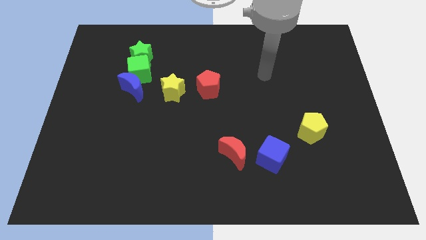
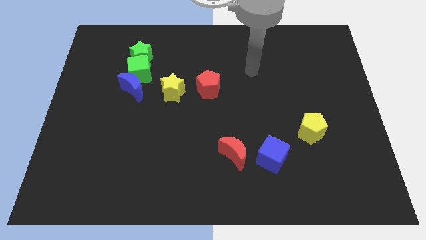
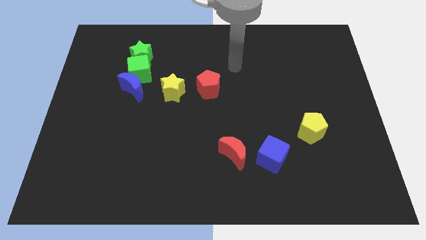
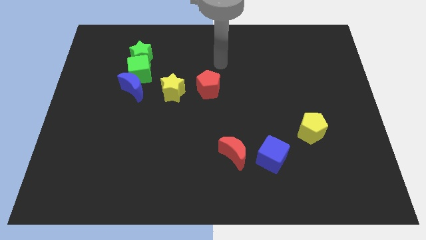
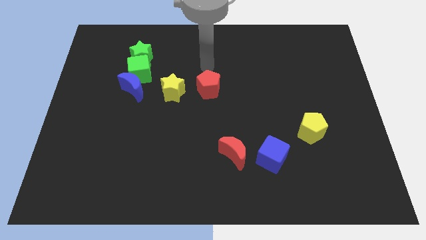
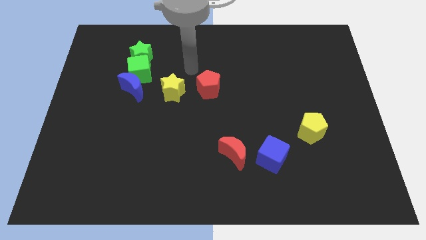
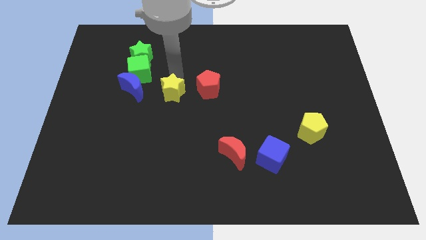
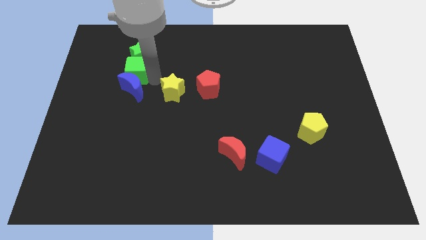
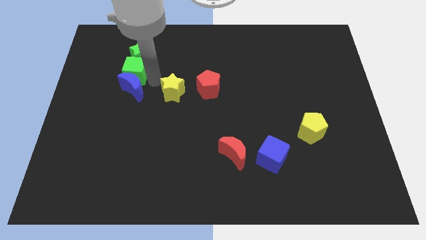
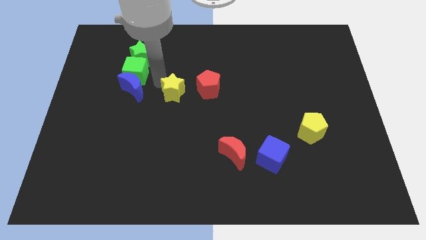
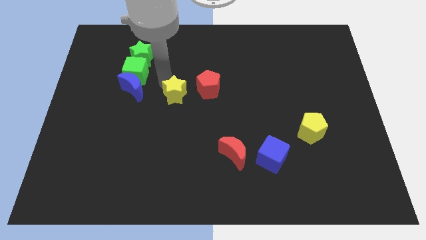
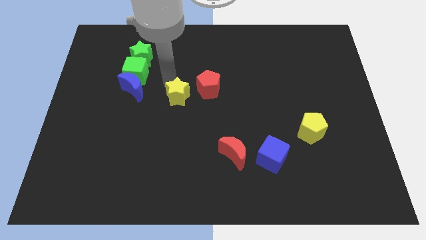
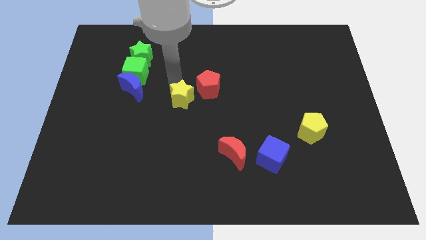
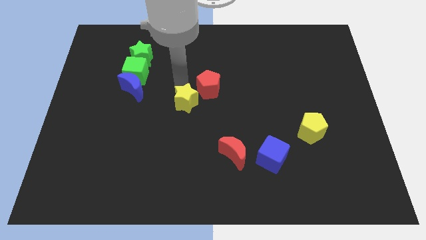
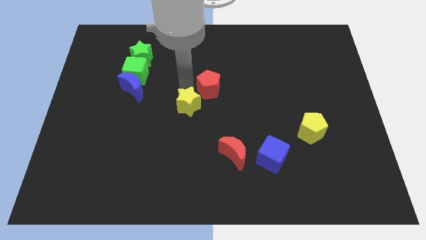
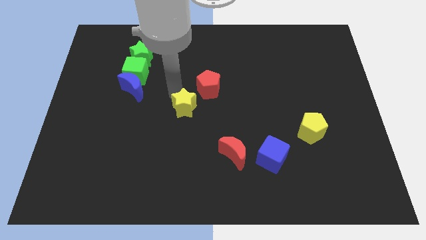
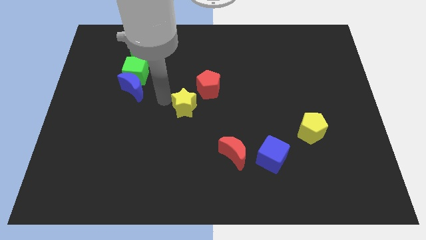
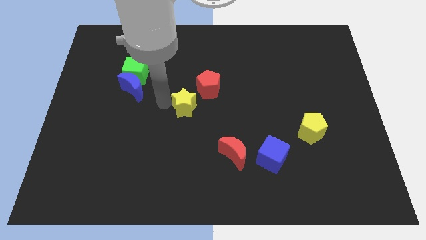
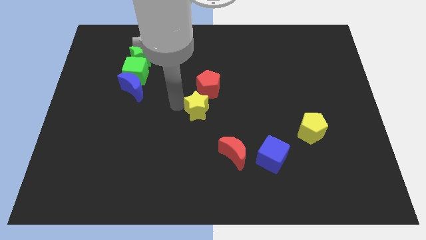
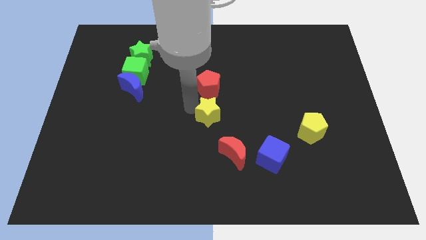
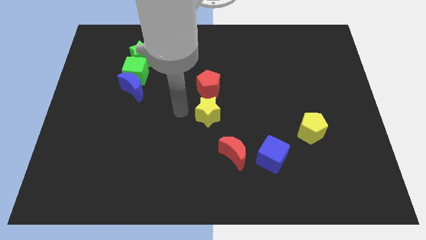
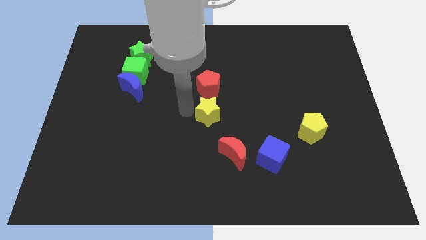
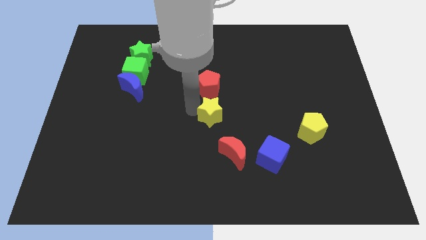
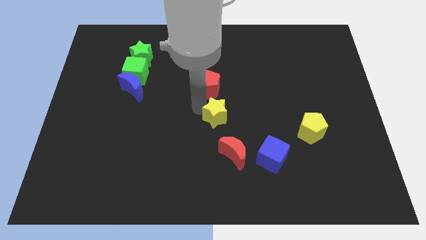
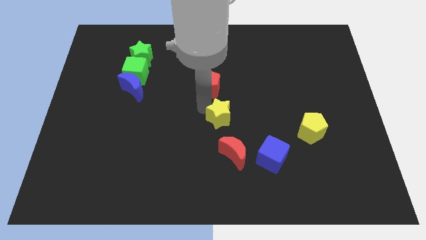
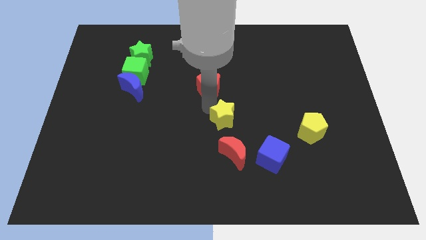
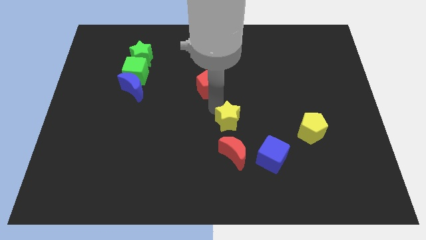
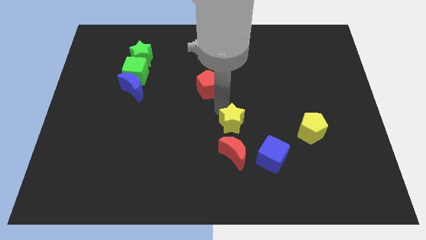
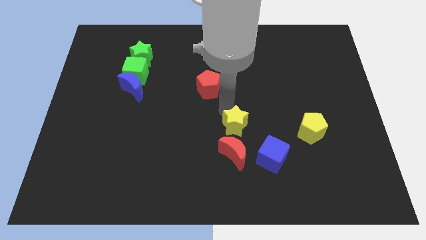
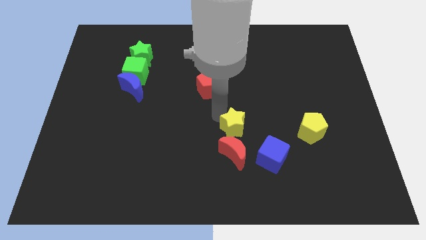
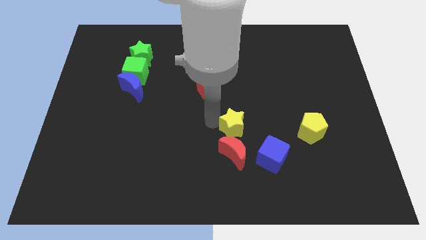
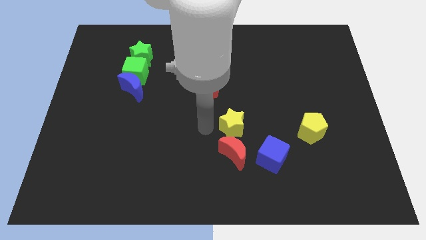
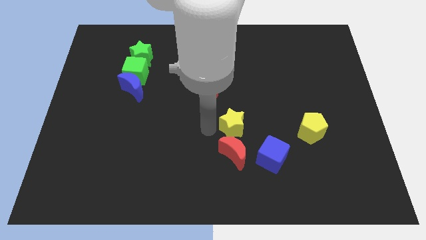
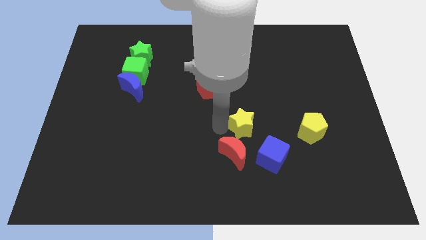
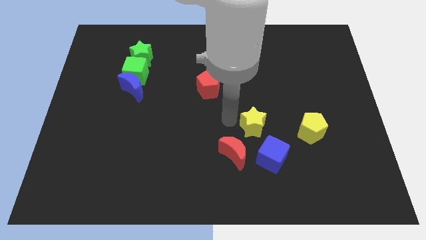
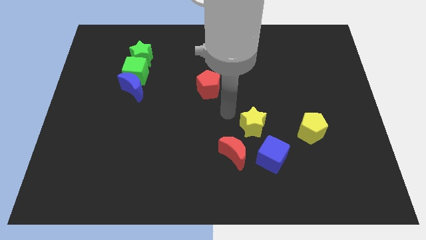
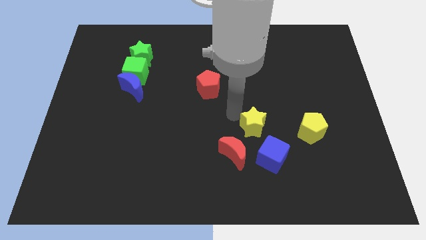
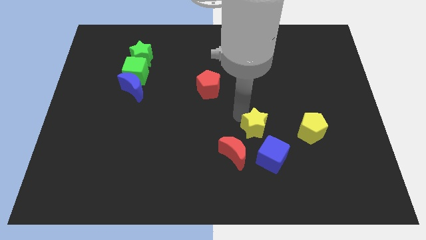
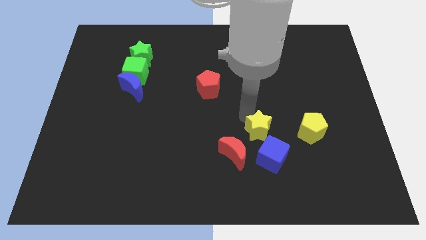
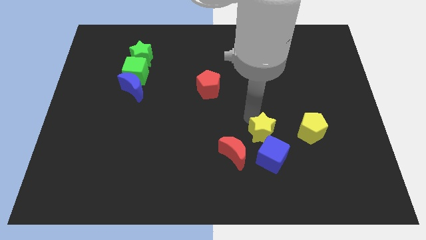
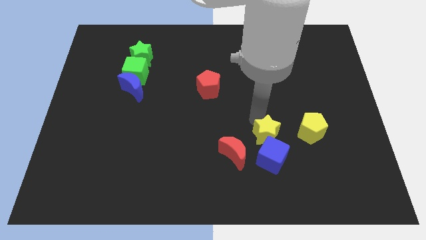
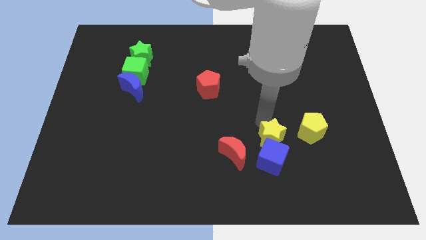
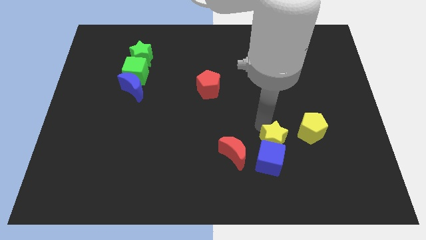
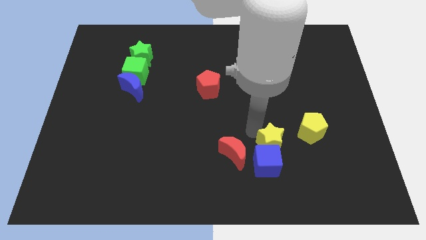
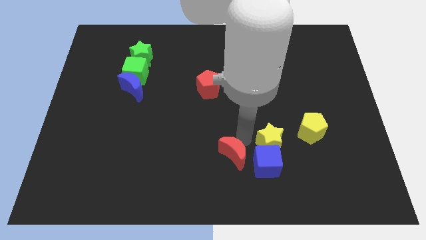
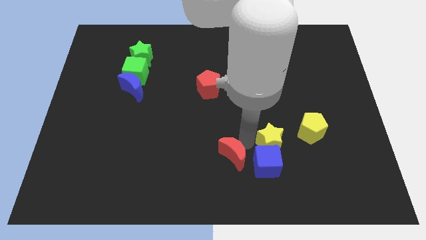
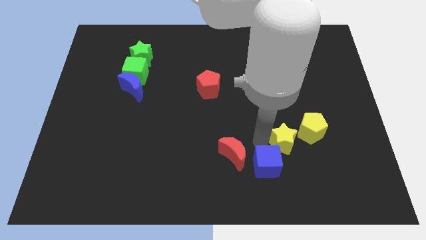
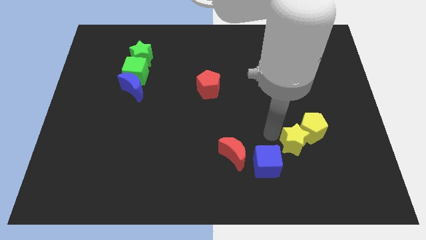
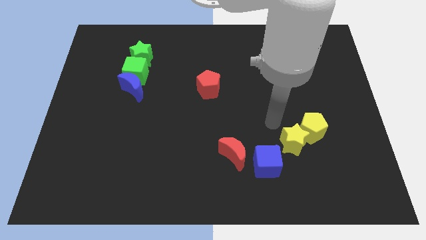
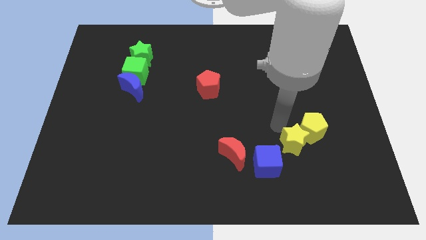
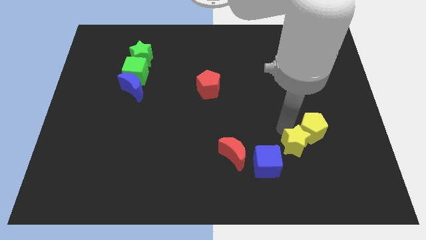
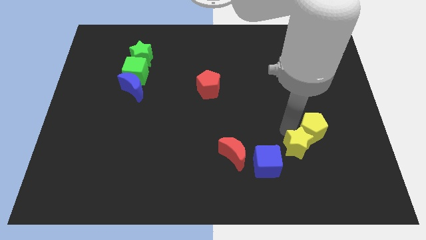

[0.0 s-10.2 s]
move the yellow star to the right side of the blue cube

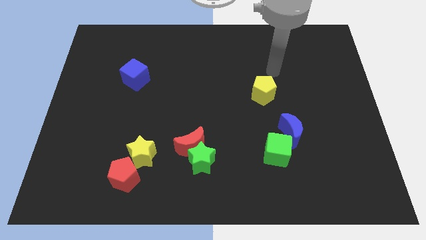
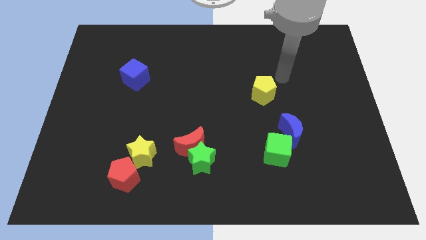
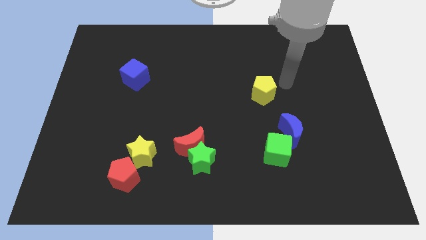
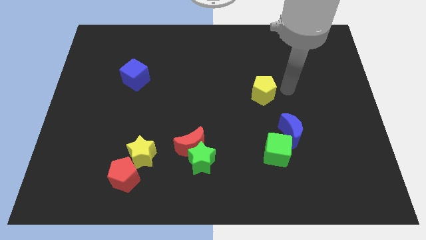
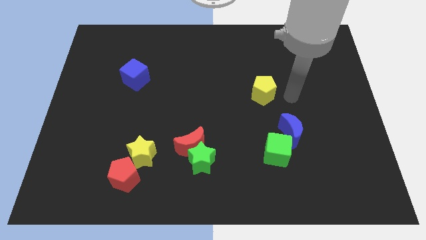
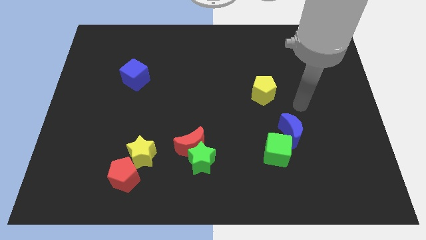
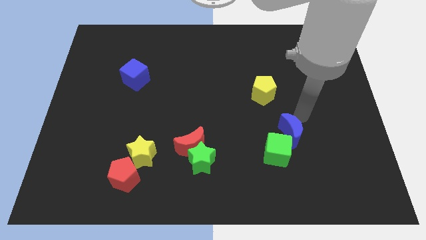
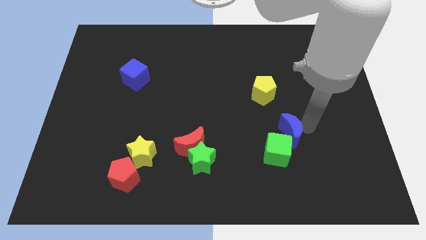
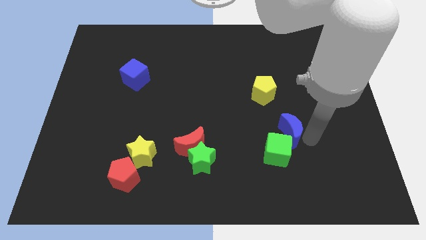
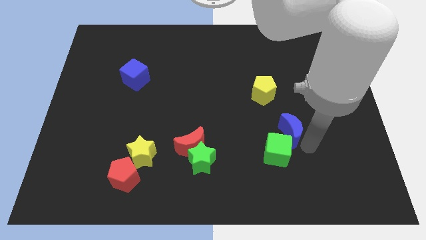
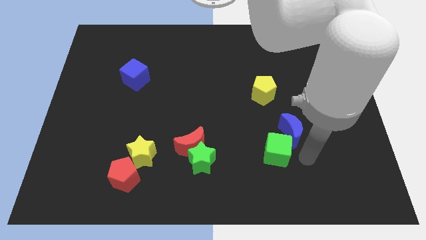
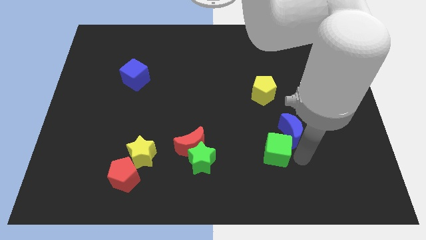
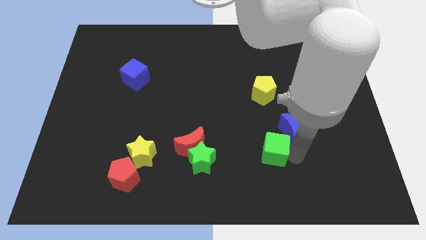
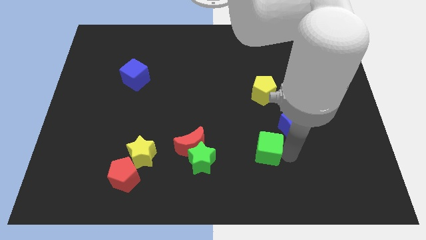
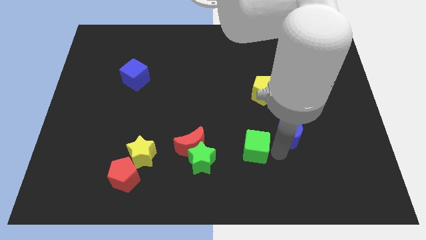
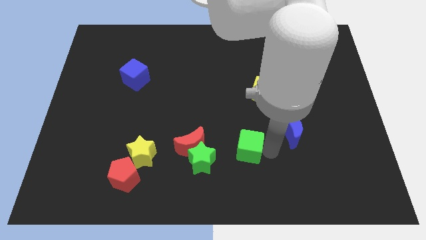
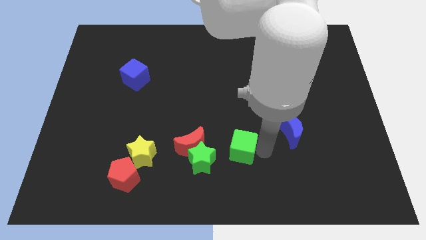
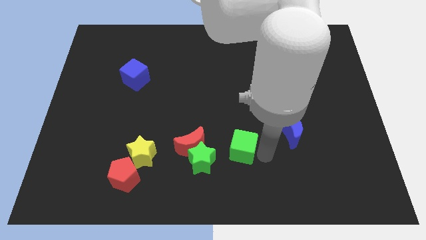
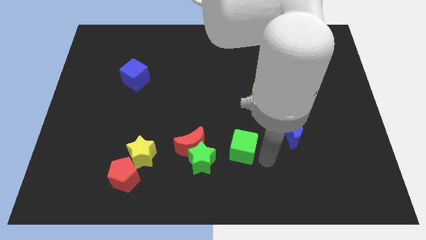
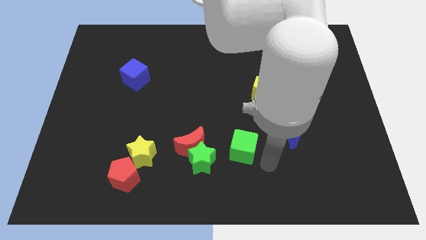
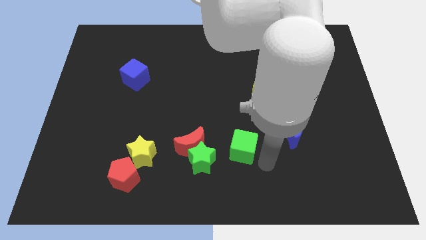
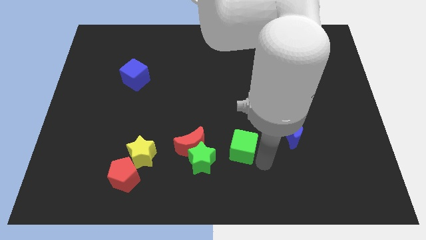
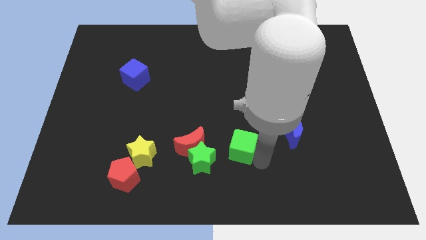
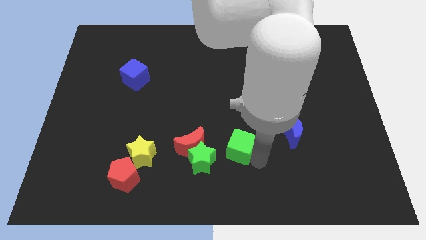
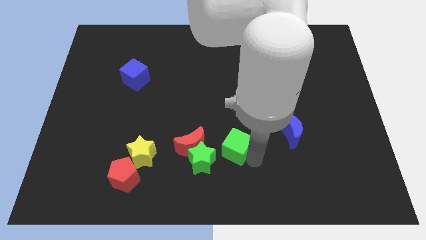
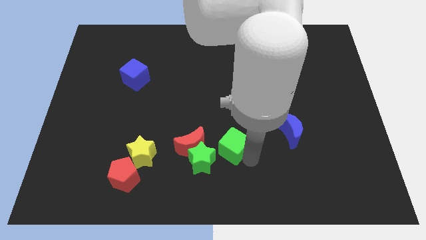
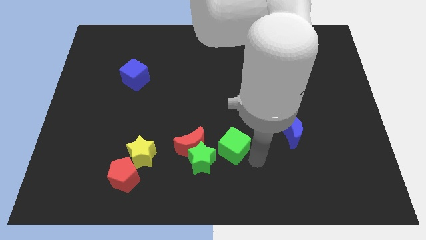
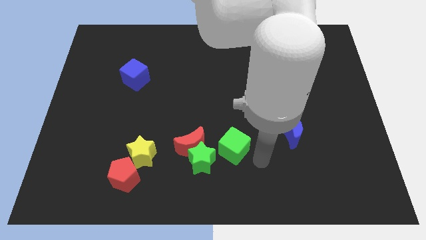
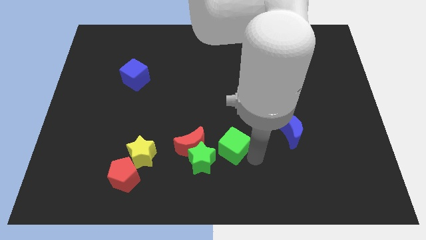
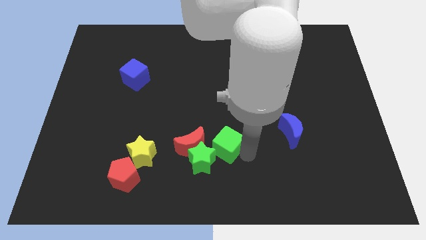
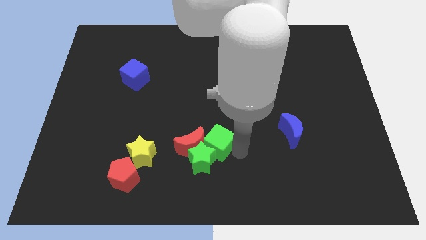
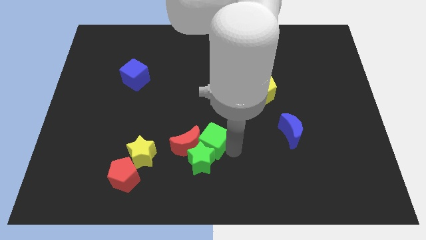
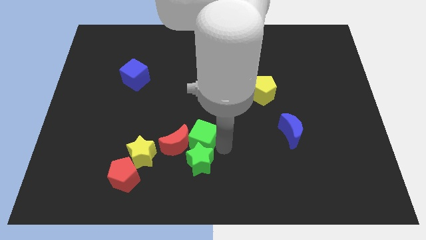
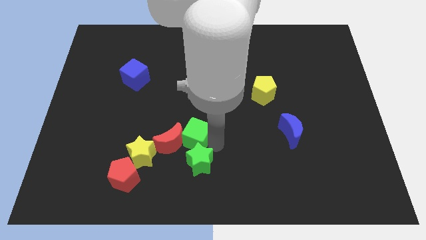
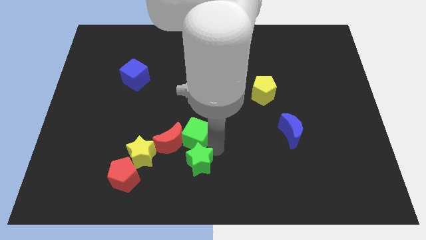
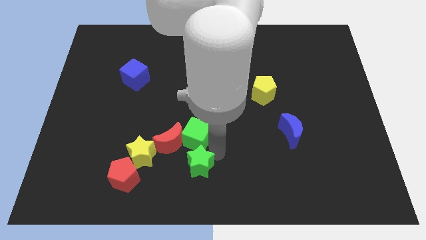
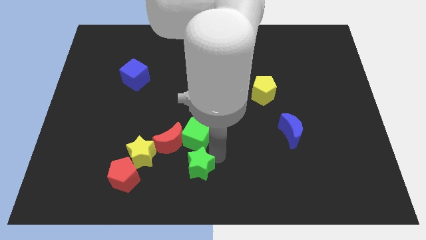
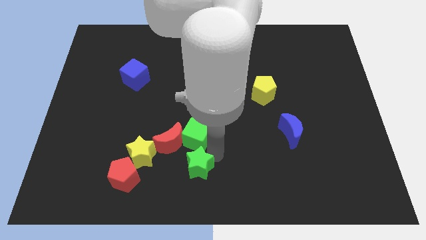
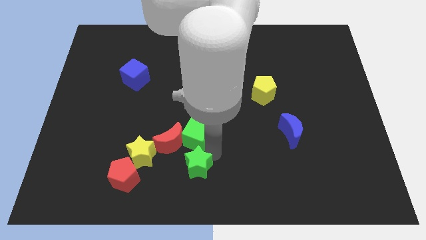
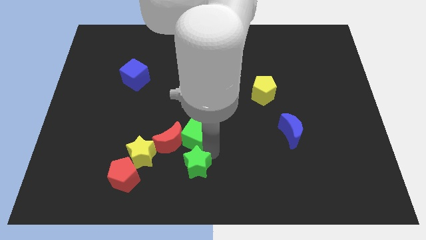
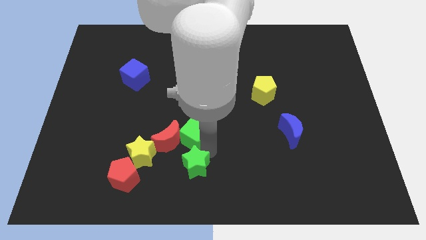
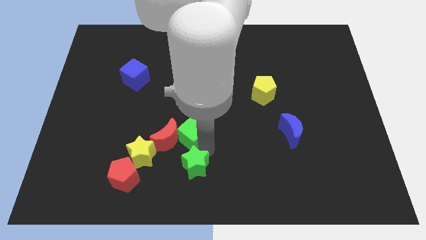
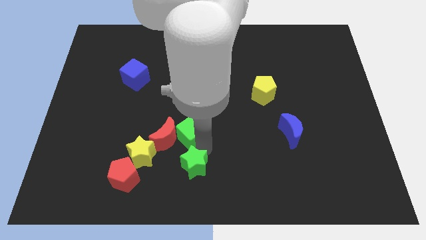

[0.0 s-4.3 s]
put the green cube to the top right of the yellow star
